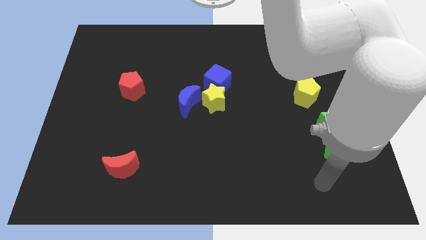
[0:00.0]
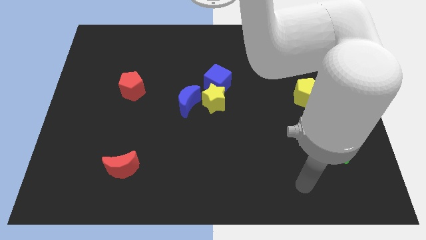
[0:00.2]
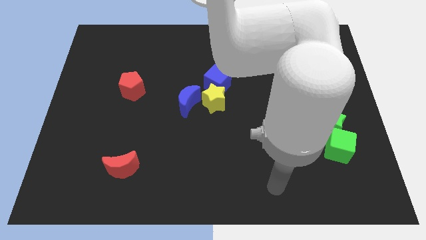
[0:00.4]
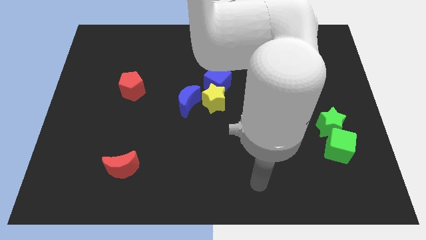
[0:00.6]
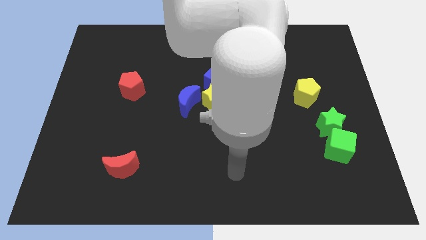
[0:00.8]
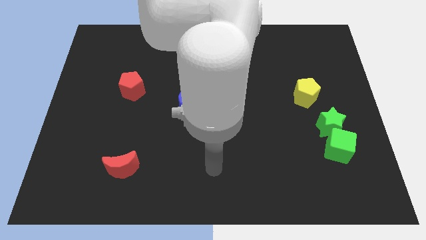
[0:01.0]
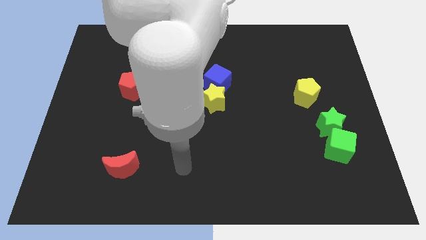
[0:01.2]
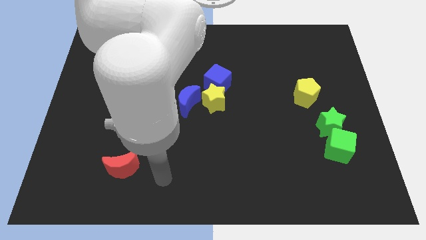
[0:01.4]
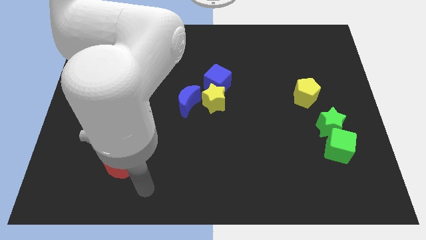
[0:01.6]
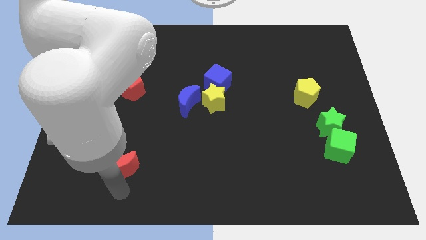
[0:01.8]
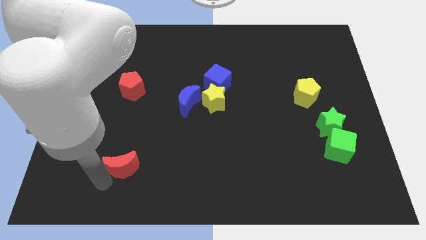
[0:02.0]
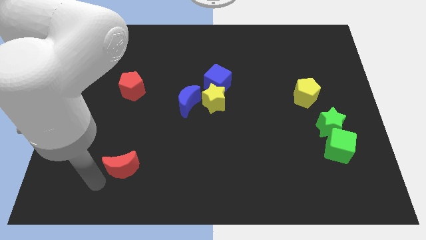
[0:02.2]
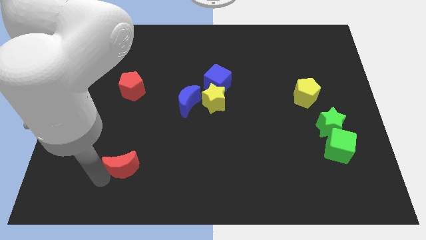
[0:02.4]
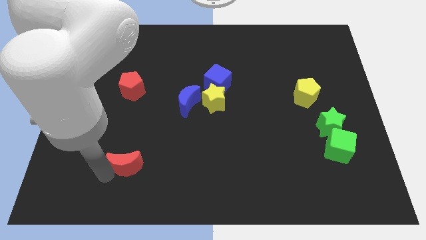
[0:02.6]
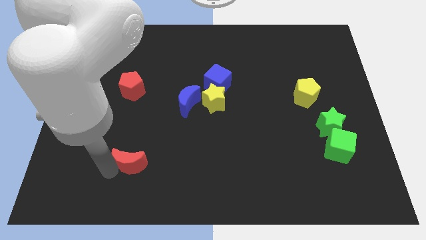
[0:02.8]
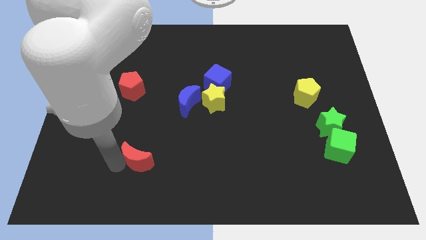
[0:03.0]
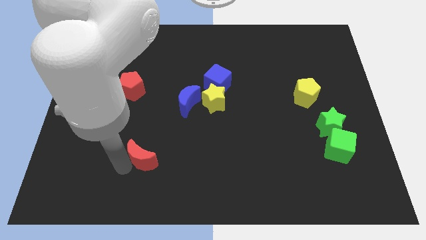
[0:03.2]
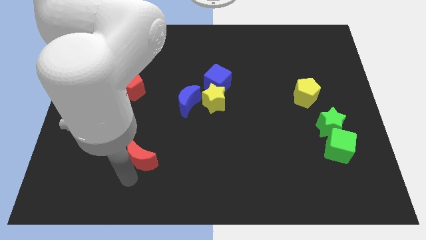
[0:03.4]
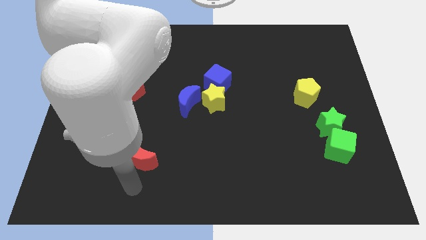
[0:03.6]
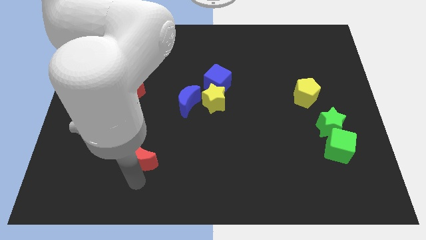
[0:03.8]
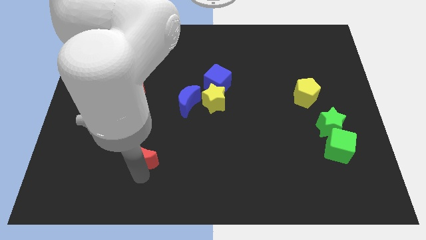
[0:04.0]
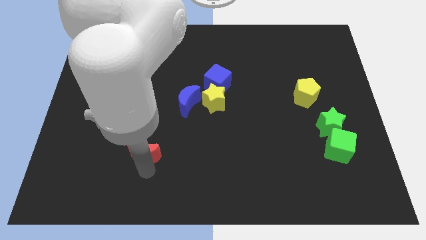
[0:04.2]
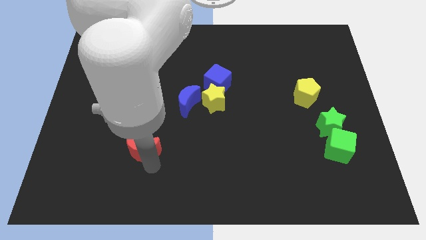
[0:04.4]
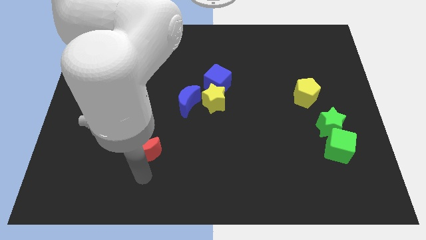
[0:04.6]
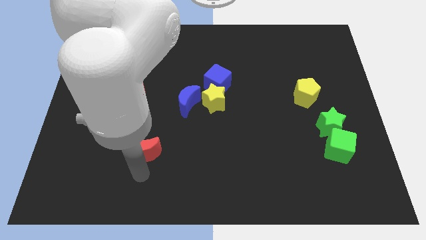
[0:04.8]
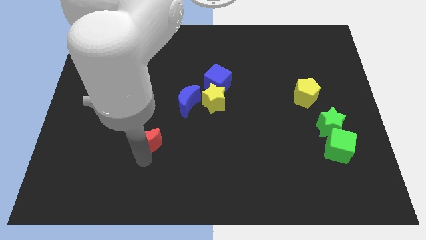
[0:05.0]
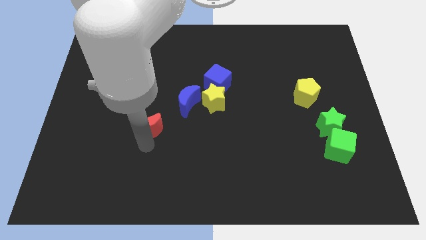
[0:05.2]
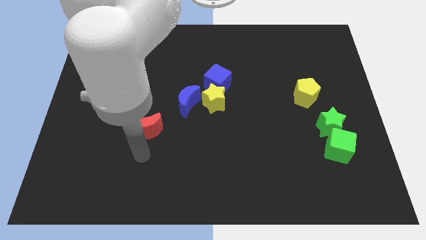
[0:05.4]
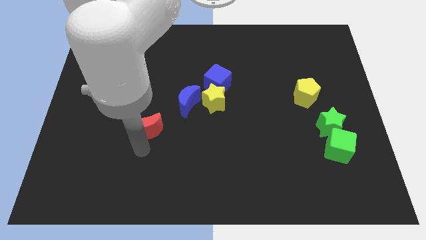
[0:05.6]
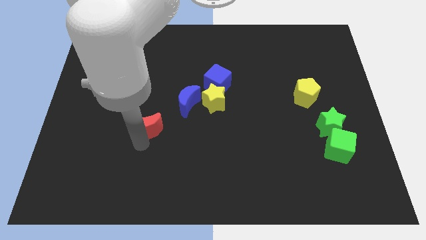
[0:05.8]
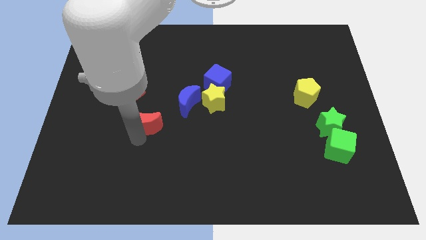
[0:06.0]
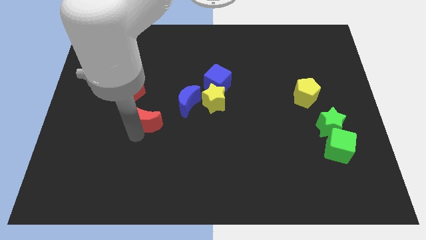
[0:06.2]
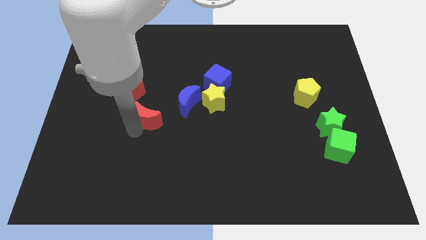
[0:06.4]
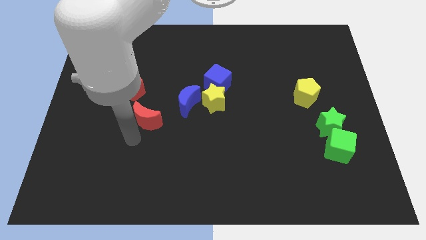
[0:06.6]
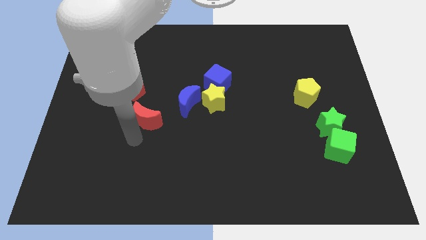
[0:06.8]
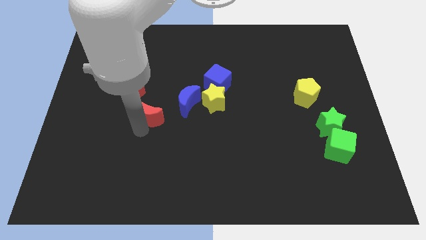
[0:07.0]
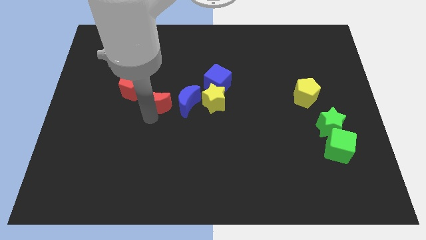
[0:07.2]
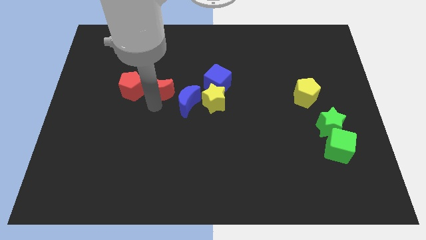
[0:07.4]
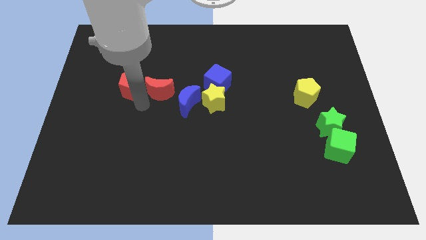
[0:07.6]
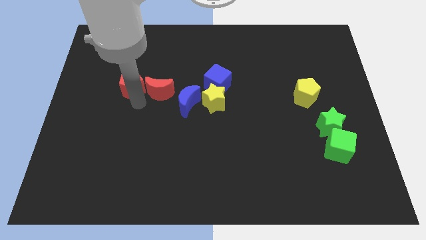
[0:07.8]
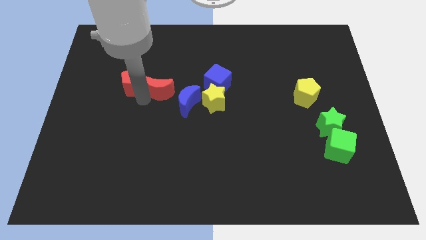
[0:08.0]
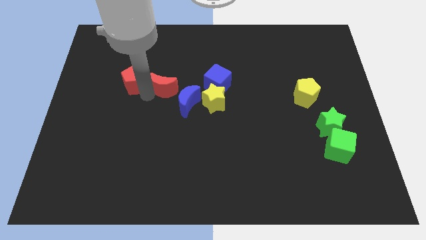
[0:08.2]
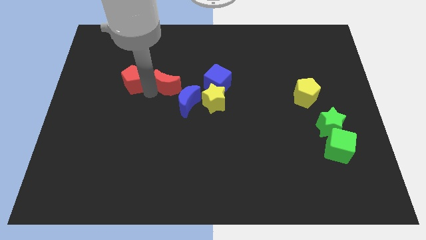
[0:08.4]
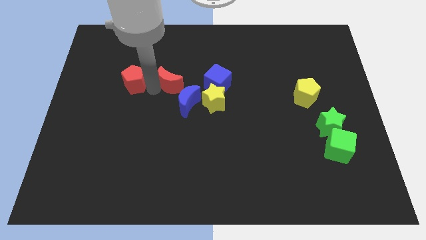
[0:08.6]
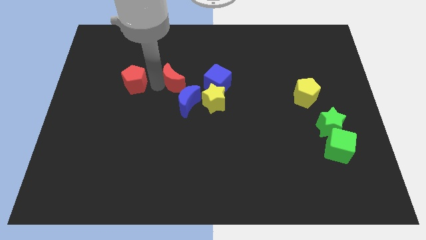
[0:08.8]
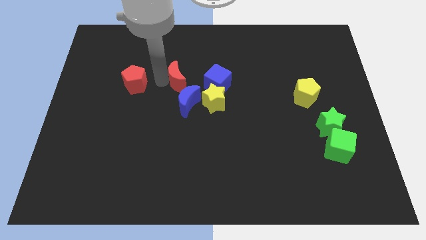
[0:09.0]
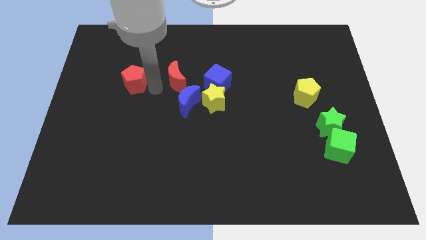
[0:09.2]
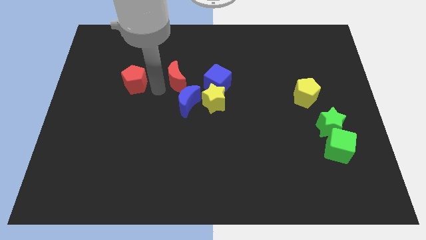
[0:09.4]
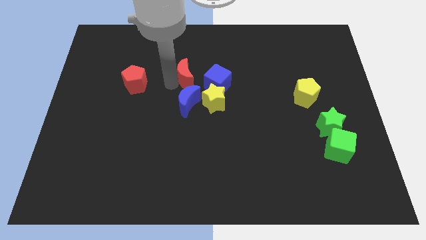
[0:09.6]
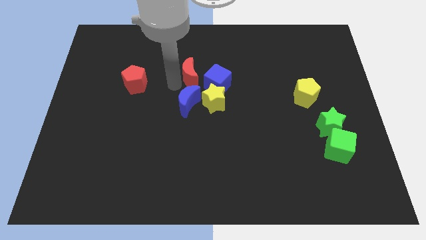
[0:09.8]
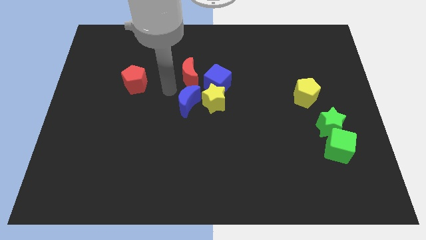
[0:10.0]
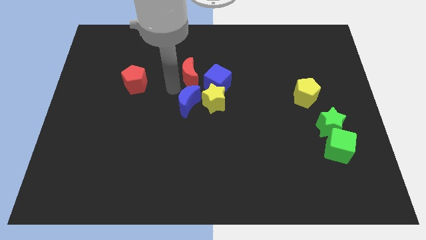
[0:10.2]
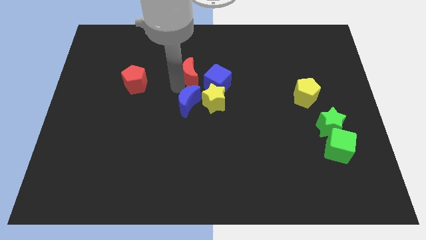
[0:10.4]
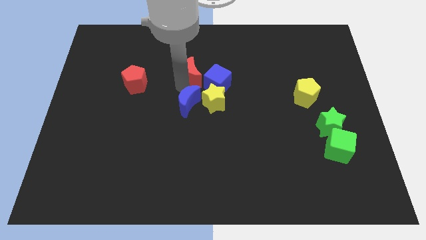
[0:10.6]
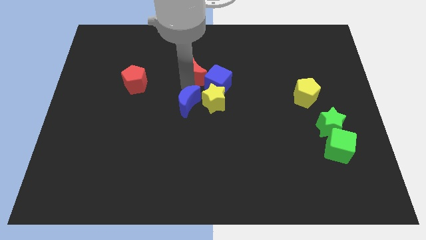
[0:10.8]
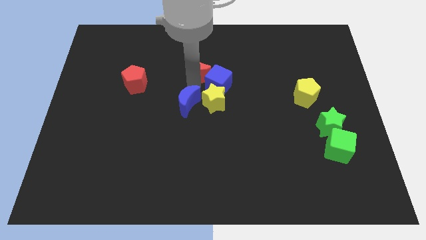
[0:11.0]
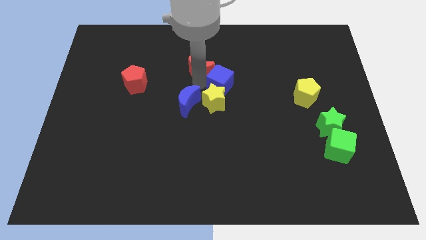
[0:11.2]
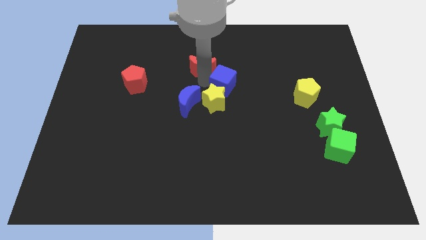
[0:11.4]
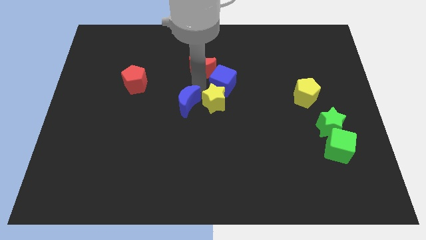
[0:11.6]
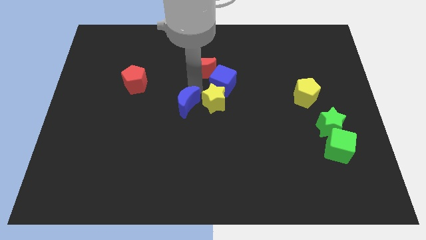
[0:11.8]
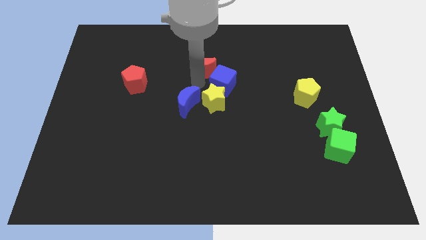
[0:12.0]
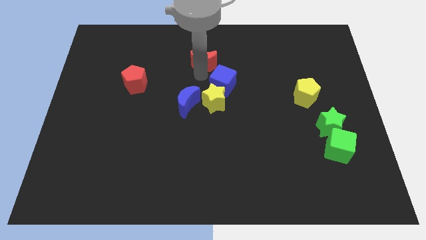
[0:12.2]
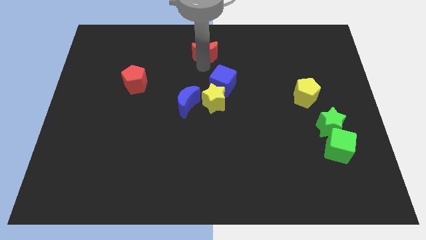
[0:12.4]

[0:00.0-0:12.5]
slide the red moon to the top
